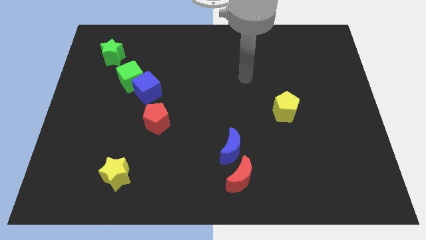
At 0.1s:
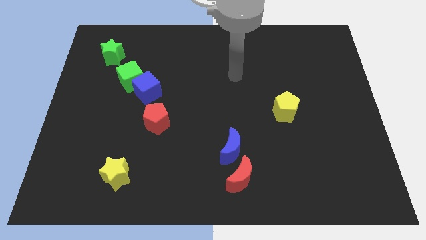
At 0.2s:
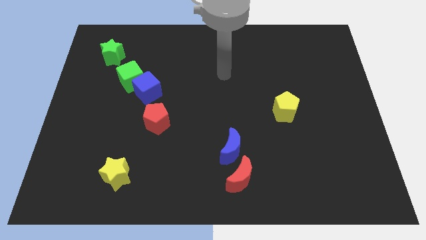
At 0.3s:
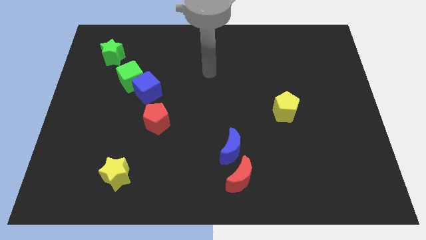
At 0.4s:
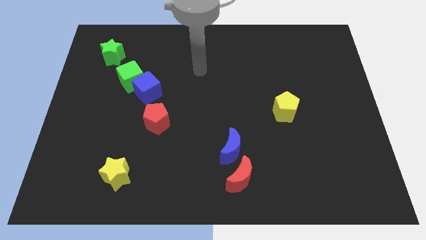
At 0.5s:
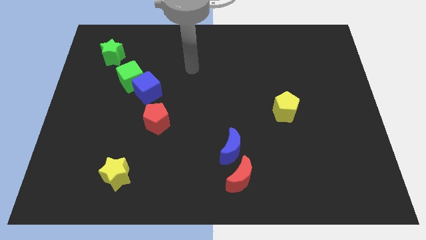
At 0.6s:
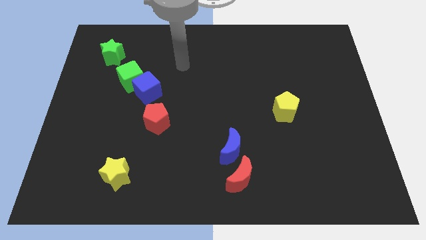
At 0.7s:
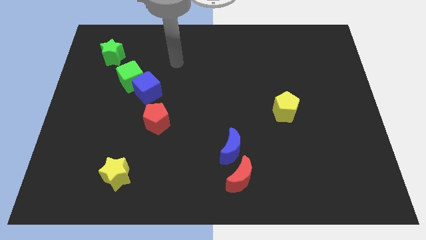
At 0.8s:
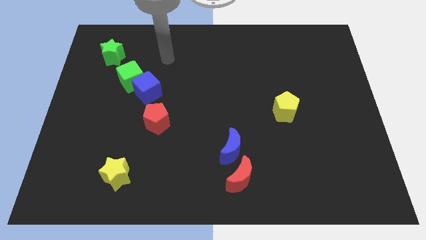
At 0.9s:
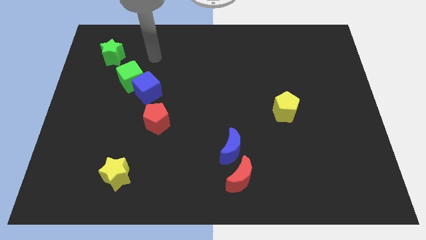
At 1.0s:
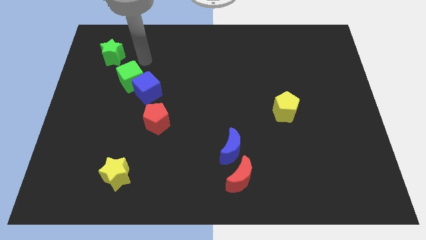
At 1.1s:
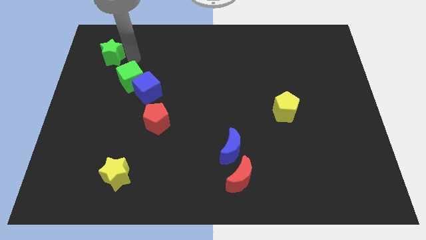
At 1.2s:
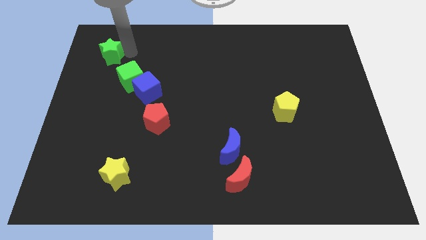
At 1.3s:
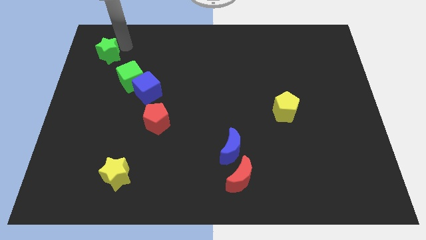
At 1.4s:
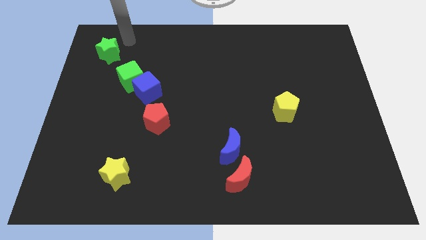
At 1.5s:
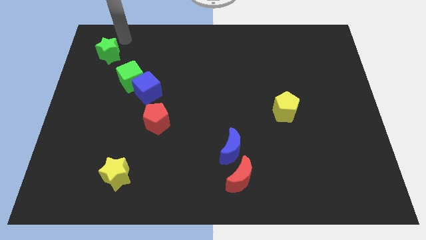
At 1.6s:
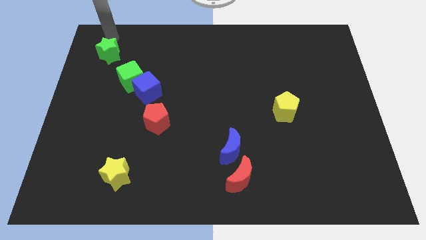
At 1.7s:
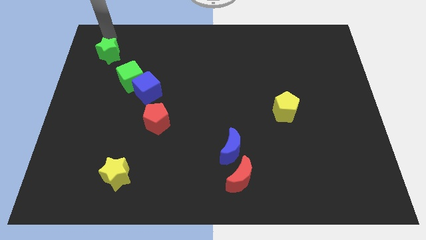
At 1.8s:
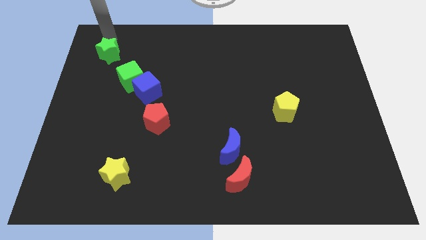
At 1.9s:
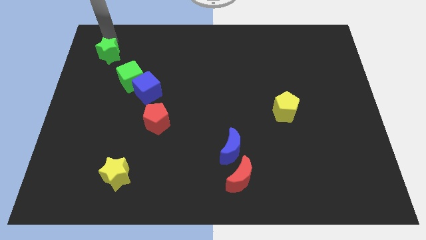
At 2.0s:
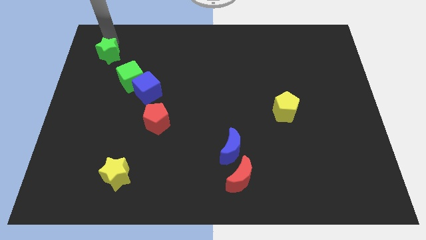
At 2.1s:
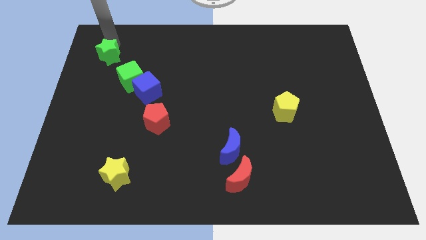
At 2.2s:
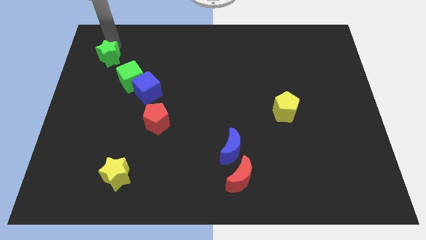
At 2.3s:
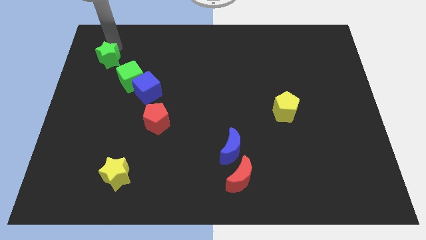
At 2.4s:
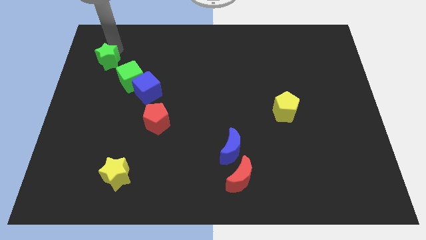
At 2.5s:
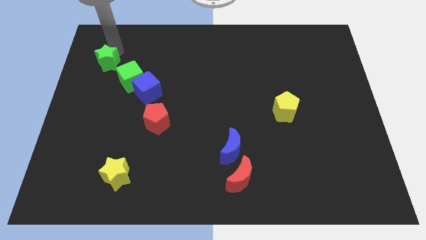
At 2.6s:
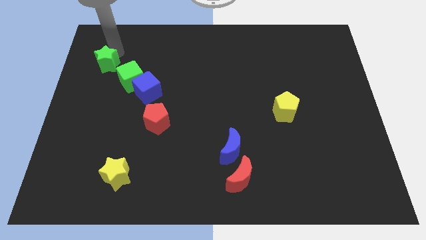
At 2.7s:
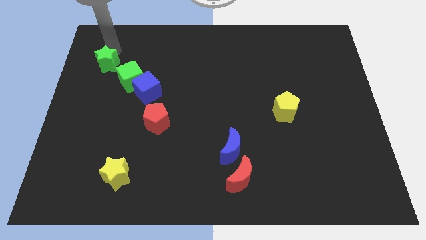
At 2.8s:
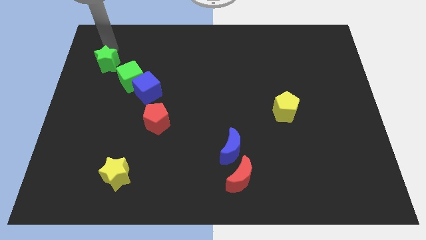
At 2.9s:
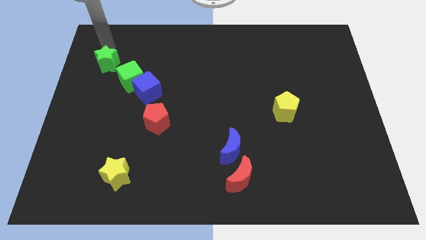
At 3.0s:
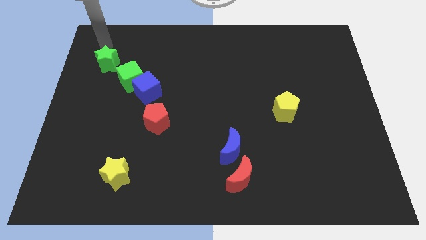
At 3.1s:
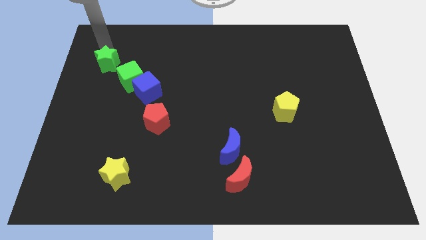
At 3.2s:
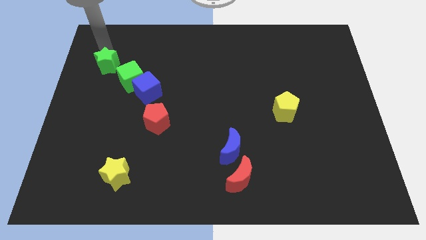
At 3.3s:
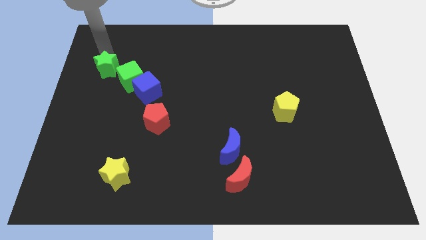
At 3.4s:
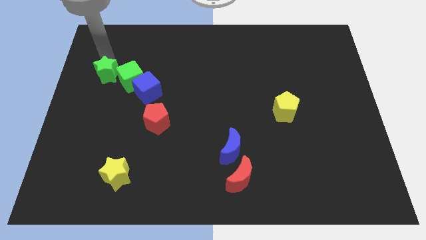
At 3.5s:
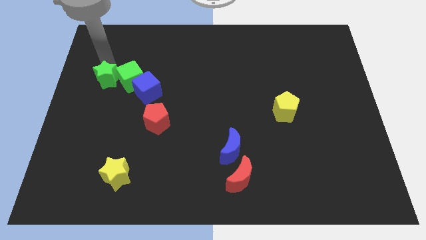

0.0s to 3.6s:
slide the green star down a little bit

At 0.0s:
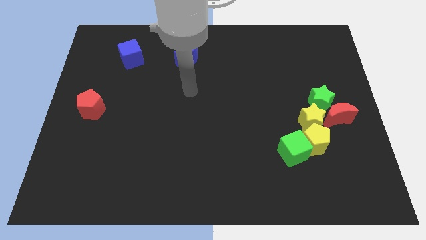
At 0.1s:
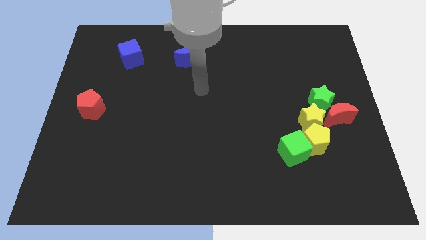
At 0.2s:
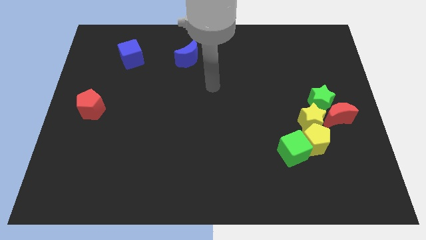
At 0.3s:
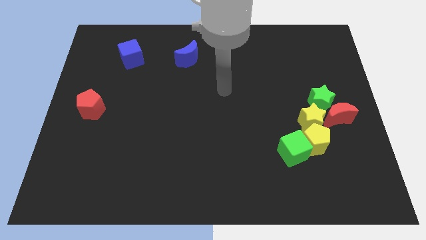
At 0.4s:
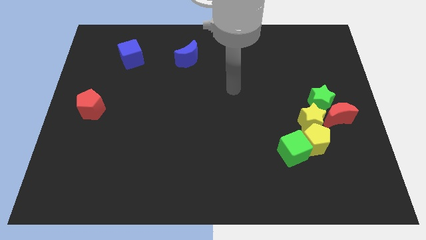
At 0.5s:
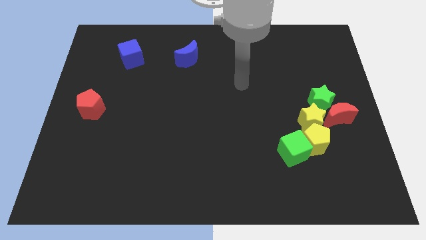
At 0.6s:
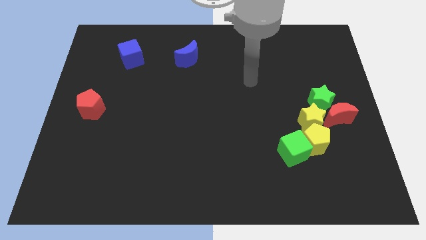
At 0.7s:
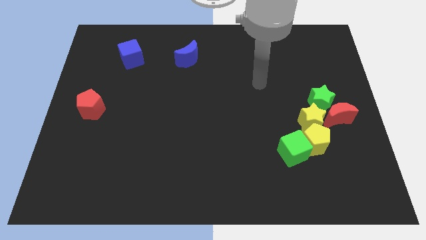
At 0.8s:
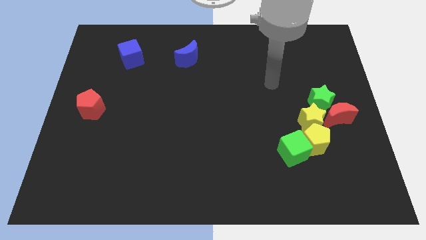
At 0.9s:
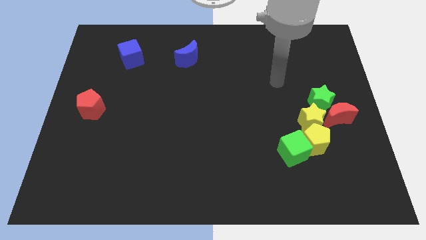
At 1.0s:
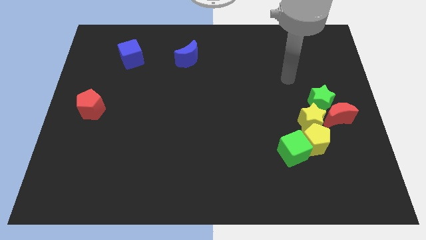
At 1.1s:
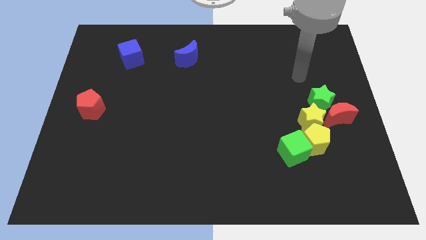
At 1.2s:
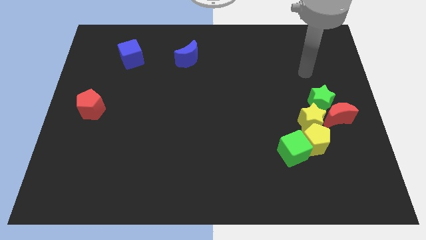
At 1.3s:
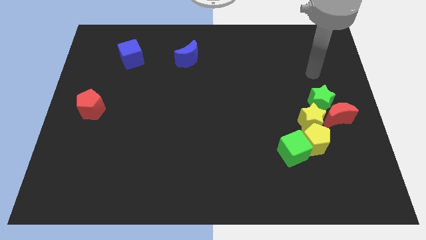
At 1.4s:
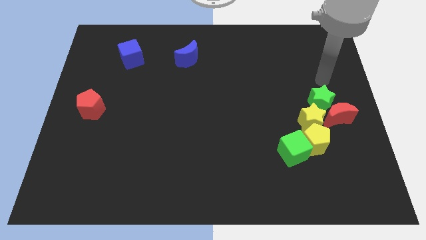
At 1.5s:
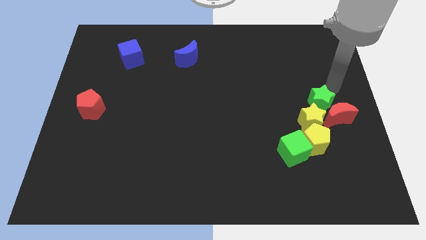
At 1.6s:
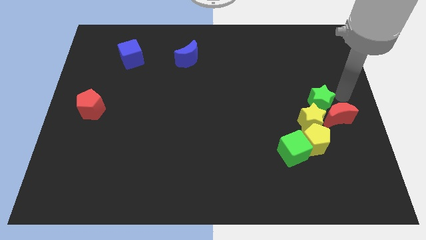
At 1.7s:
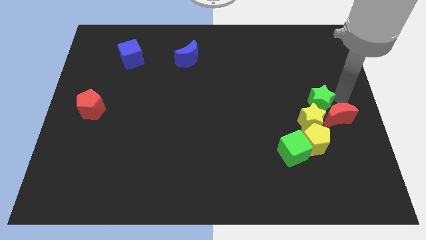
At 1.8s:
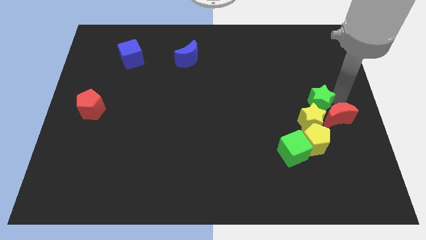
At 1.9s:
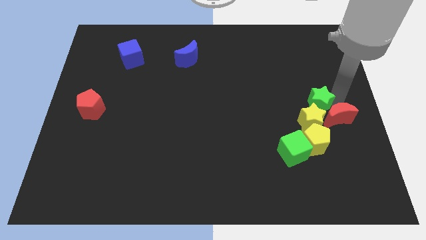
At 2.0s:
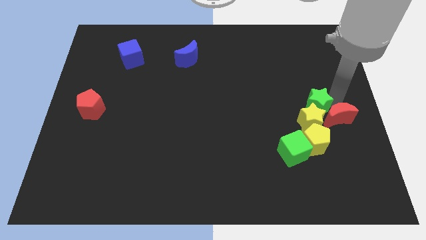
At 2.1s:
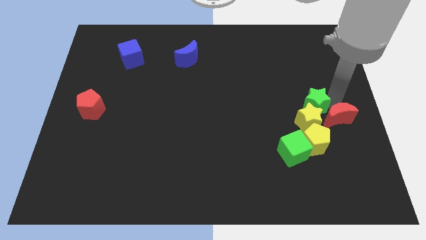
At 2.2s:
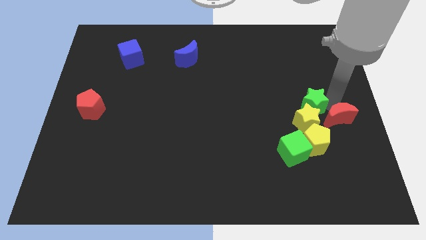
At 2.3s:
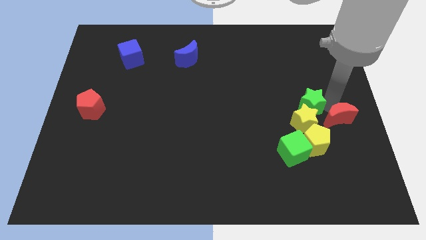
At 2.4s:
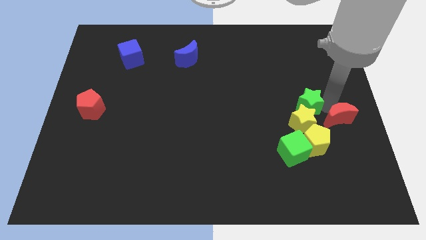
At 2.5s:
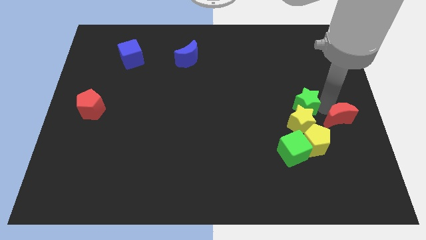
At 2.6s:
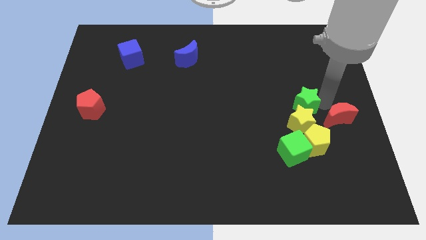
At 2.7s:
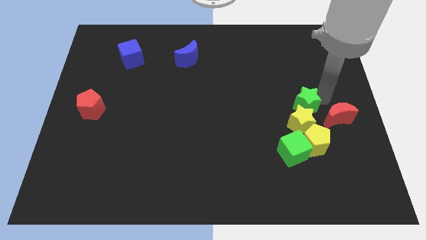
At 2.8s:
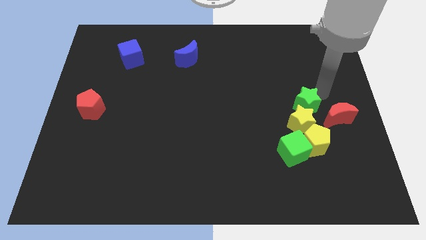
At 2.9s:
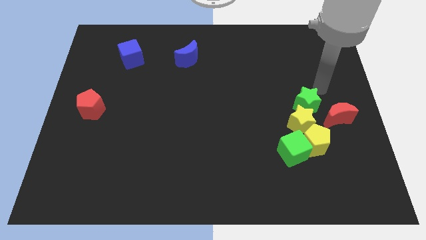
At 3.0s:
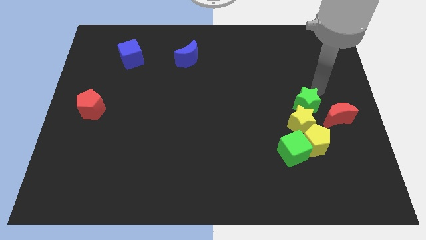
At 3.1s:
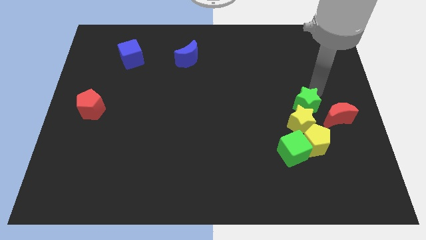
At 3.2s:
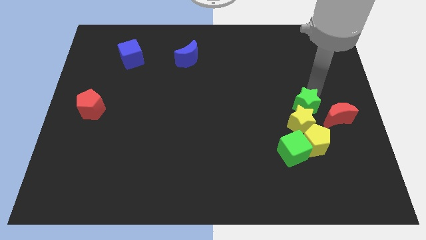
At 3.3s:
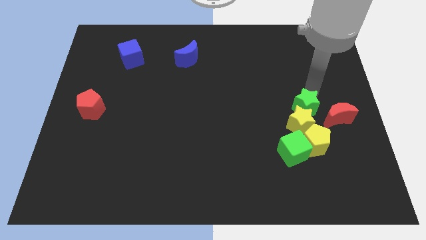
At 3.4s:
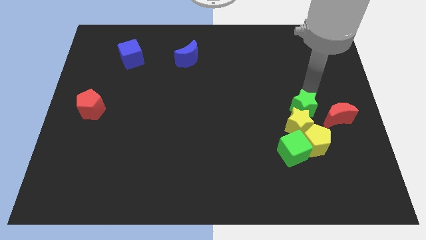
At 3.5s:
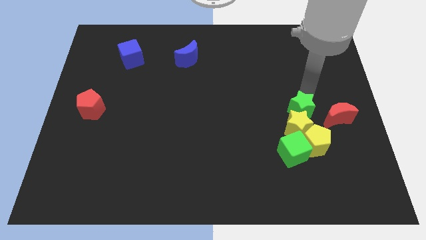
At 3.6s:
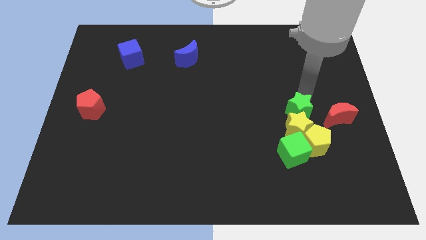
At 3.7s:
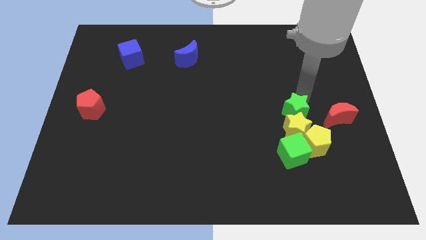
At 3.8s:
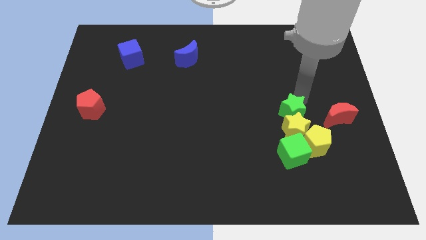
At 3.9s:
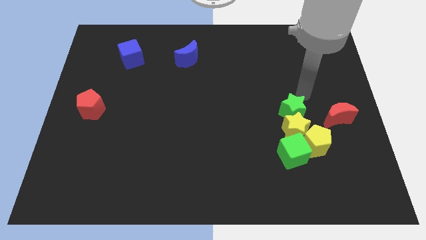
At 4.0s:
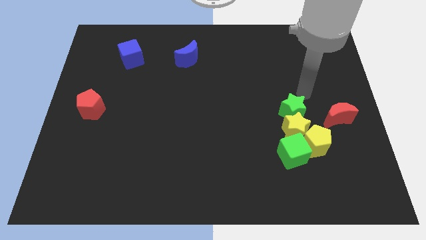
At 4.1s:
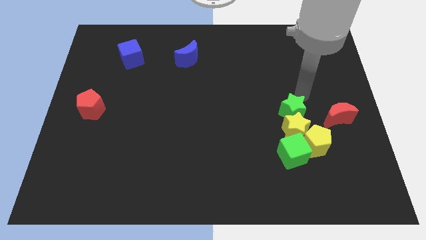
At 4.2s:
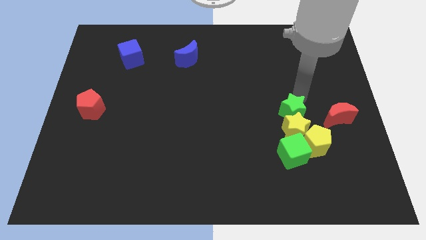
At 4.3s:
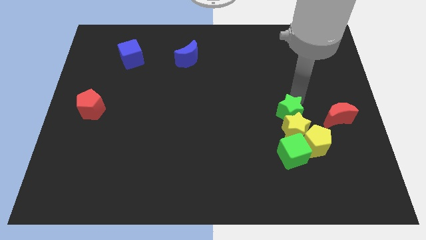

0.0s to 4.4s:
slide the green star somewhat diagonally downwards and to the left
